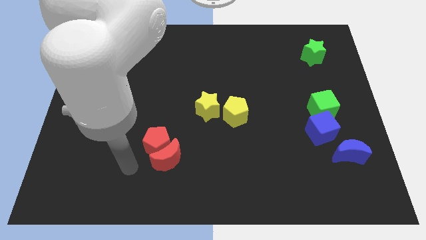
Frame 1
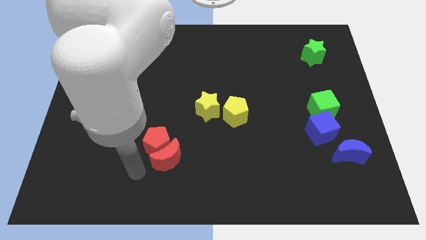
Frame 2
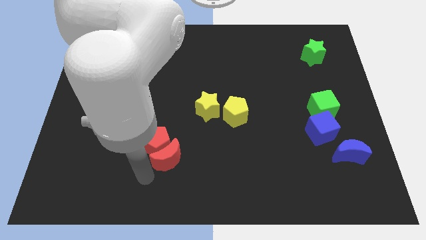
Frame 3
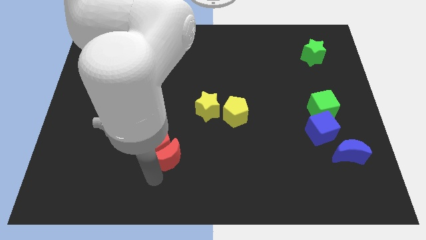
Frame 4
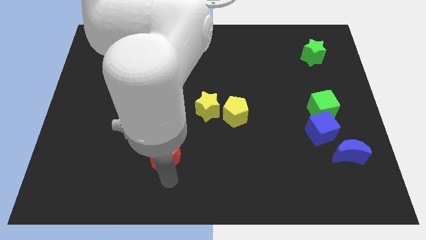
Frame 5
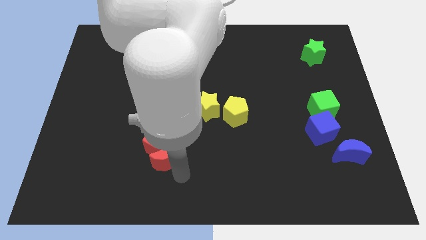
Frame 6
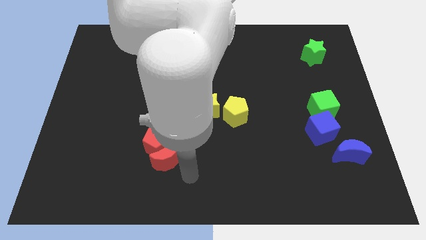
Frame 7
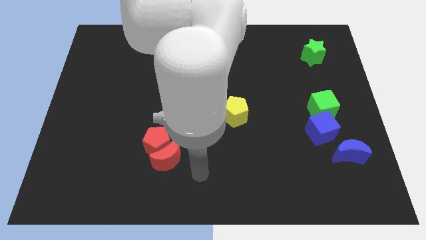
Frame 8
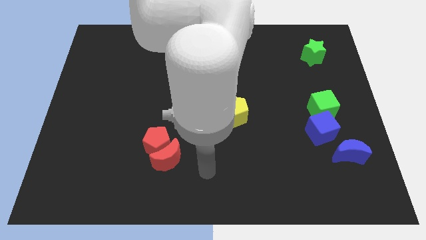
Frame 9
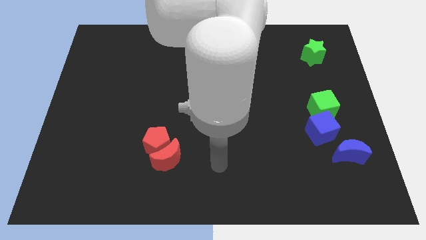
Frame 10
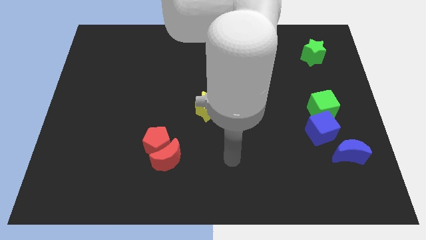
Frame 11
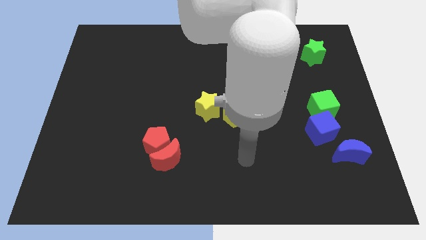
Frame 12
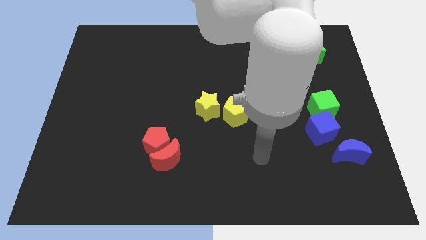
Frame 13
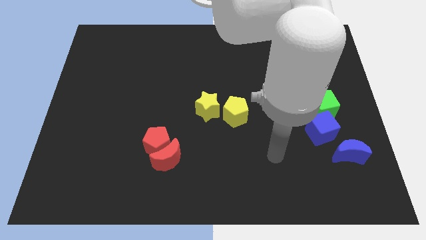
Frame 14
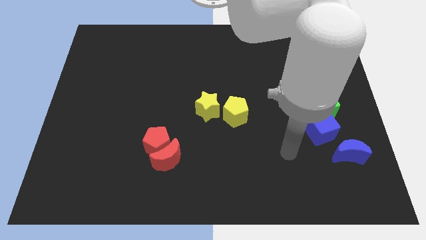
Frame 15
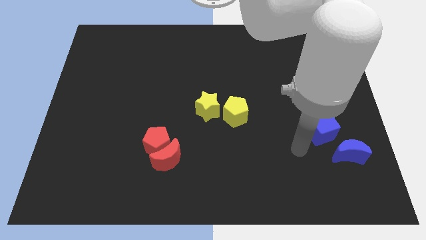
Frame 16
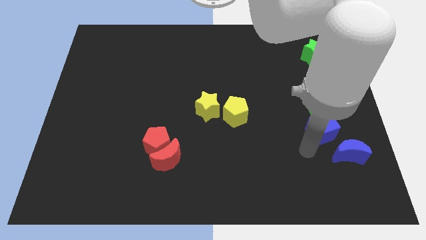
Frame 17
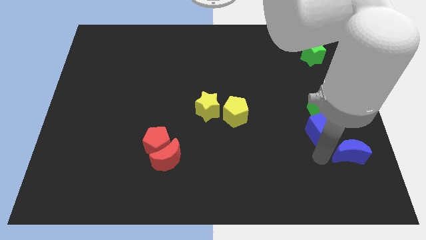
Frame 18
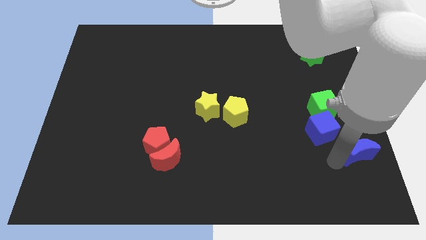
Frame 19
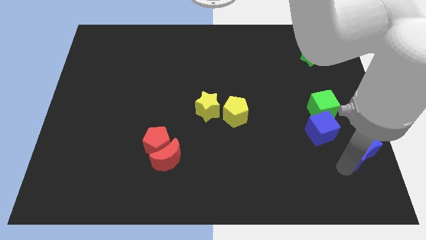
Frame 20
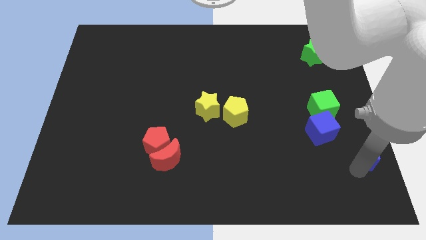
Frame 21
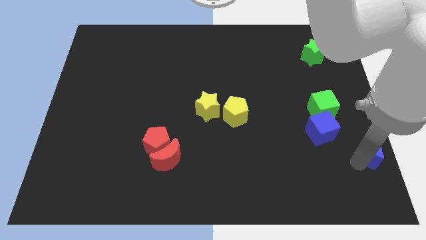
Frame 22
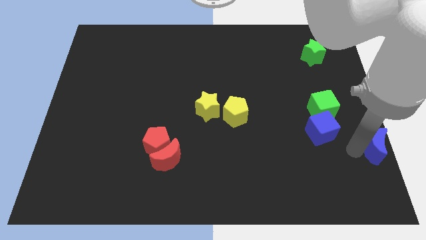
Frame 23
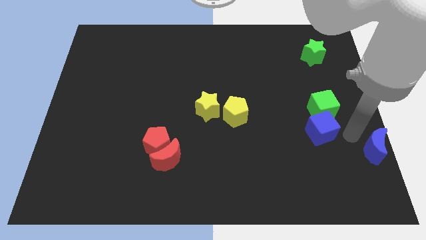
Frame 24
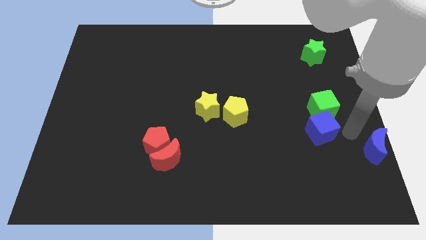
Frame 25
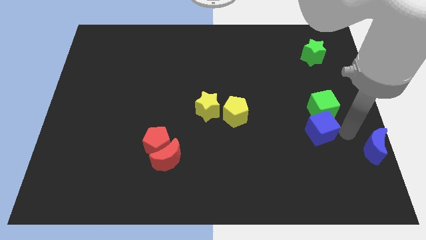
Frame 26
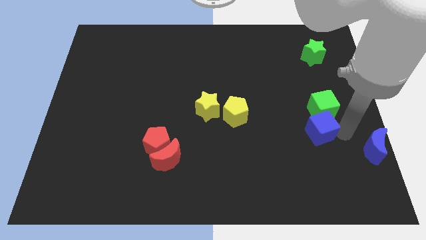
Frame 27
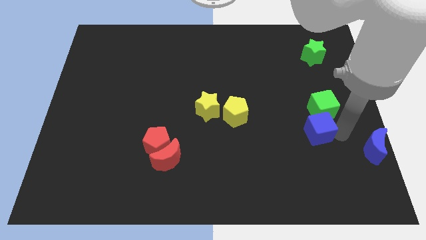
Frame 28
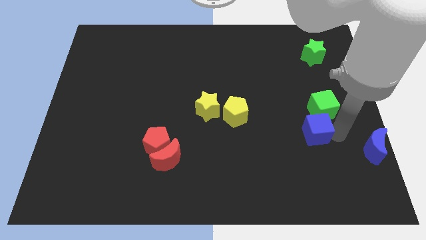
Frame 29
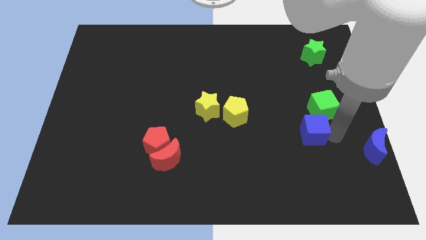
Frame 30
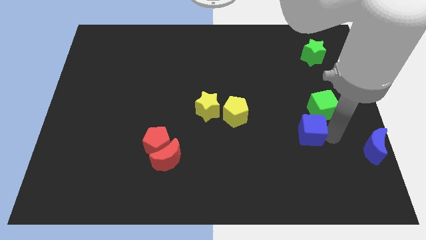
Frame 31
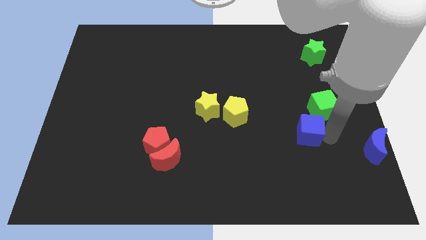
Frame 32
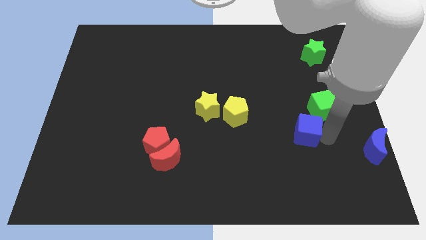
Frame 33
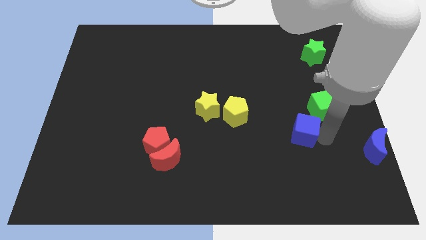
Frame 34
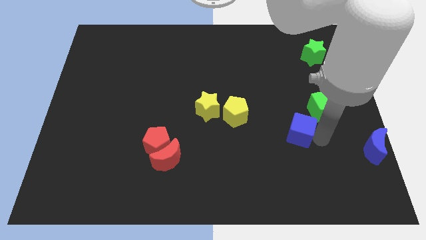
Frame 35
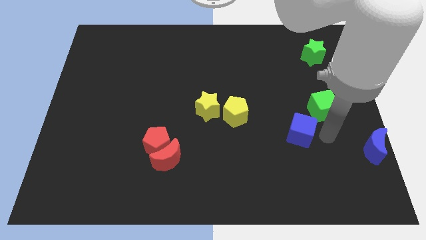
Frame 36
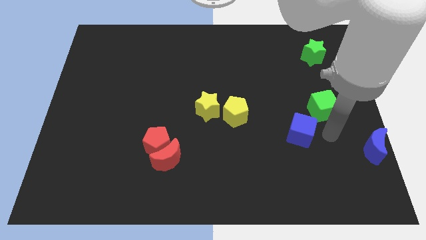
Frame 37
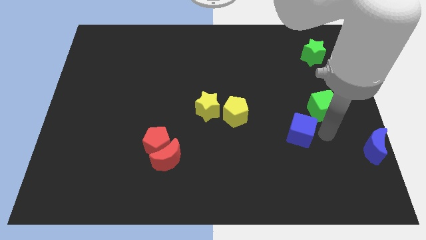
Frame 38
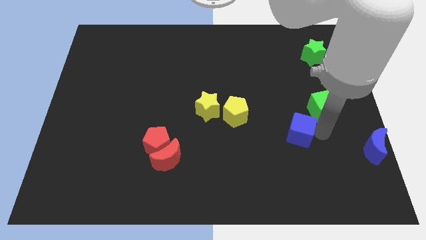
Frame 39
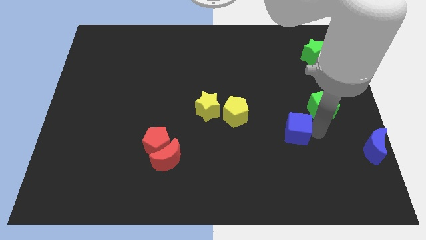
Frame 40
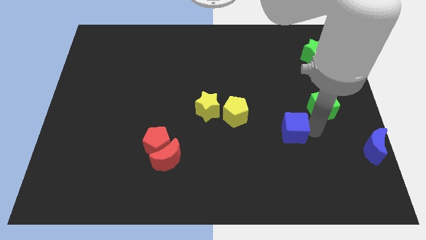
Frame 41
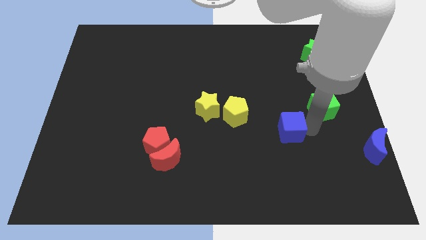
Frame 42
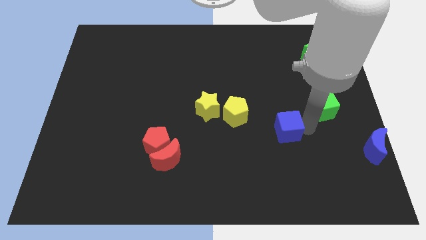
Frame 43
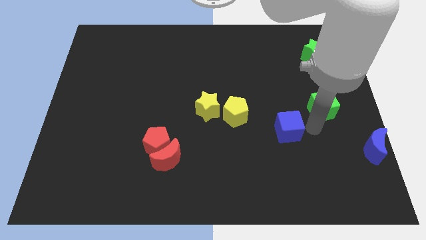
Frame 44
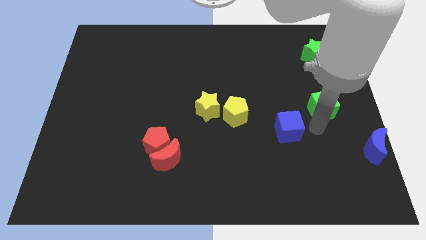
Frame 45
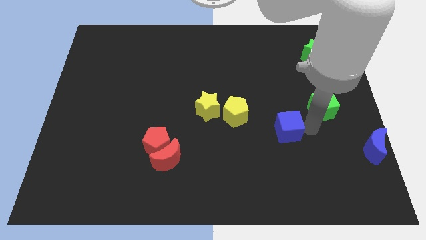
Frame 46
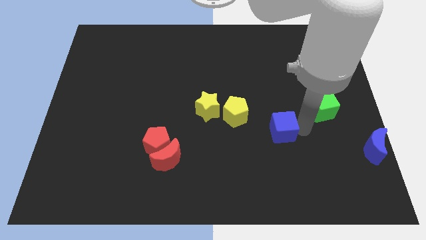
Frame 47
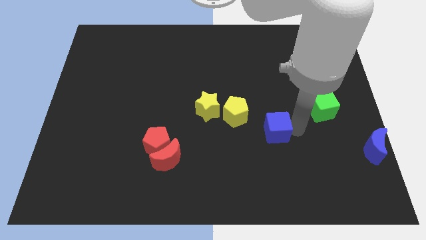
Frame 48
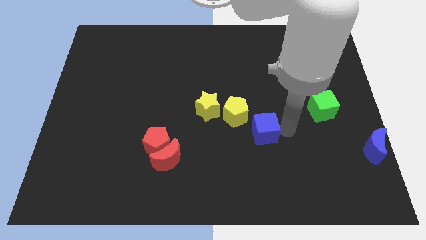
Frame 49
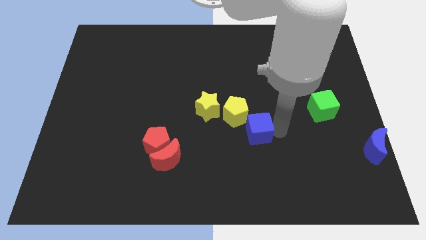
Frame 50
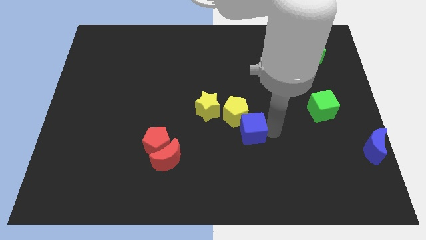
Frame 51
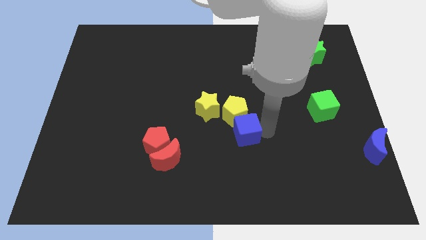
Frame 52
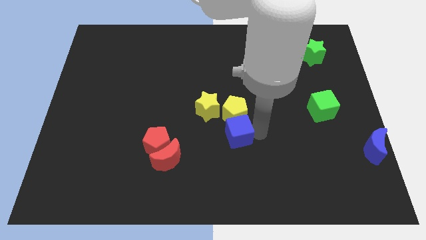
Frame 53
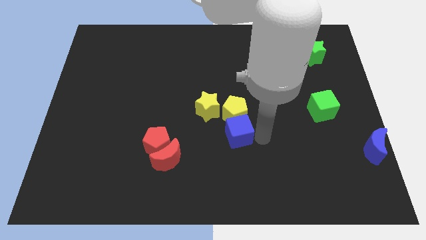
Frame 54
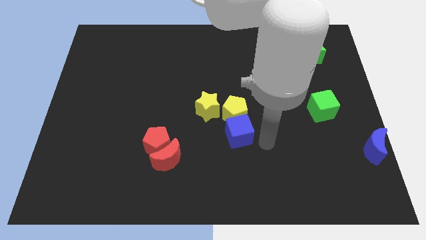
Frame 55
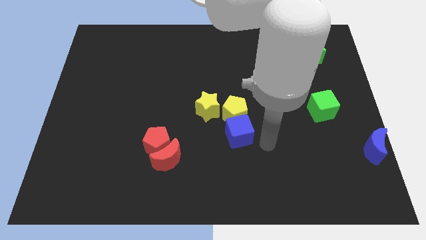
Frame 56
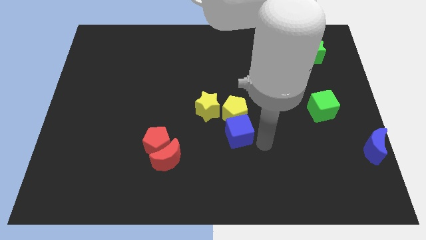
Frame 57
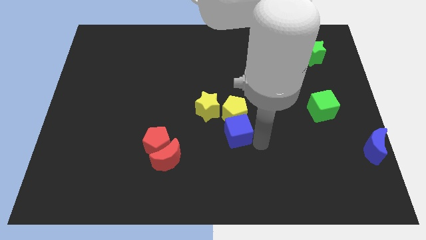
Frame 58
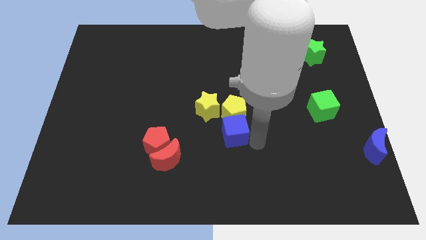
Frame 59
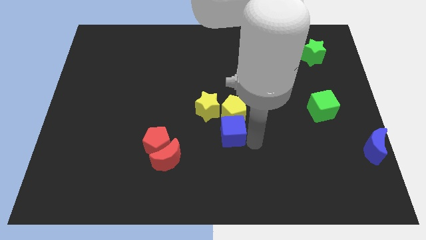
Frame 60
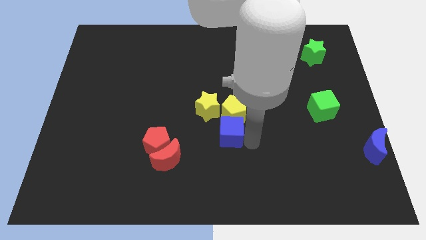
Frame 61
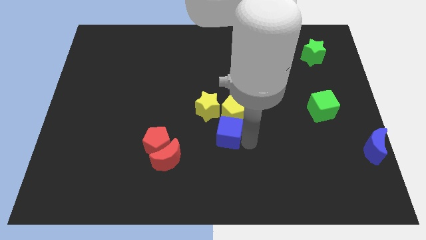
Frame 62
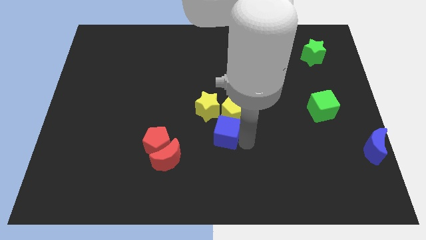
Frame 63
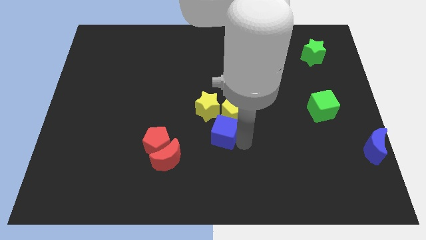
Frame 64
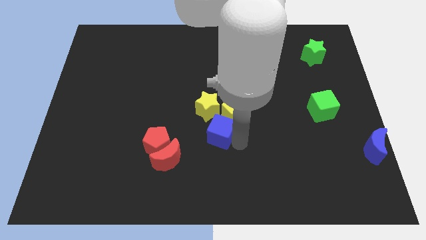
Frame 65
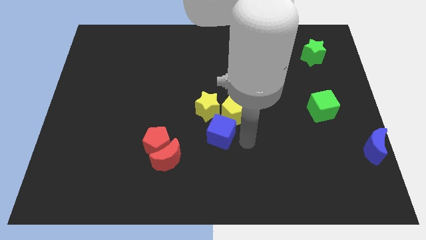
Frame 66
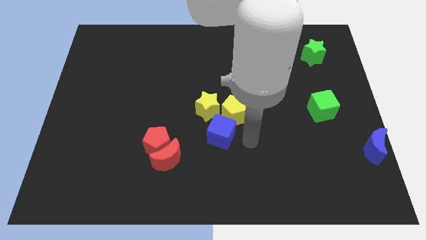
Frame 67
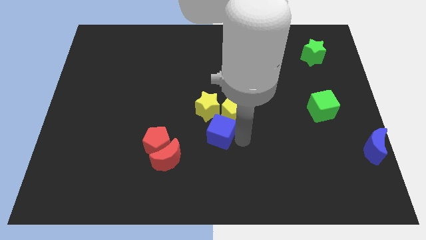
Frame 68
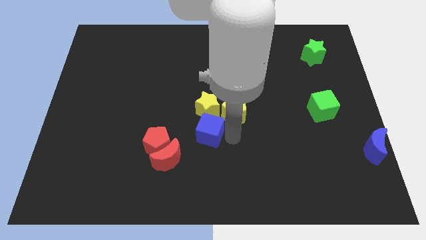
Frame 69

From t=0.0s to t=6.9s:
put the blue cube to the bottom left side of the yellow star

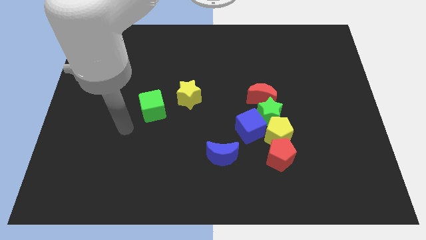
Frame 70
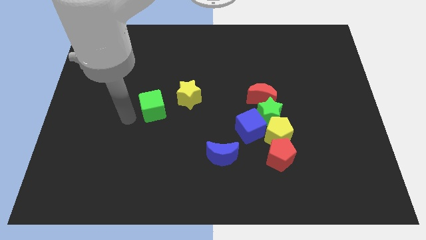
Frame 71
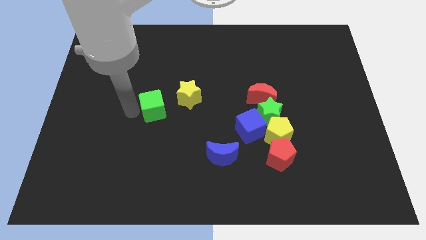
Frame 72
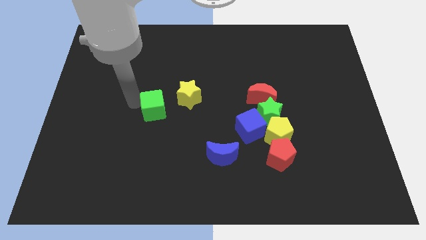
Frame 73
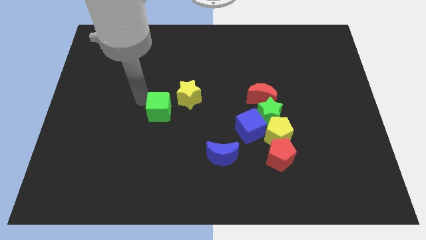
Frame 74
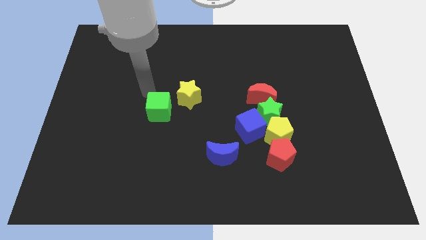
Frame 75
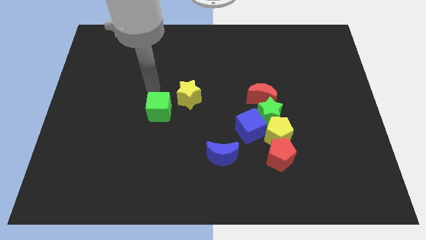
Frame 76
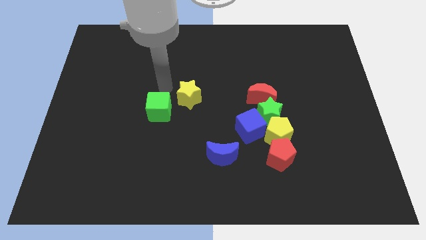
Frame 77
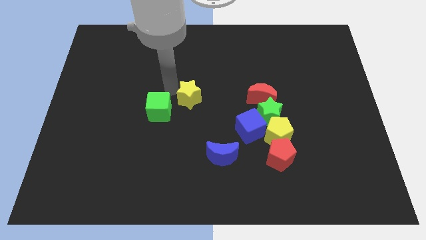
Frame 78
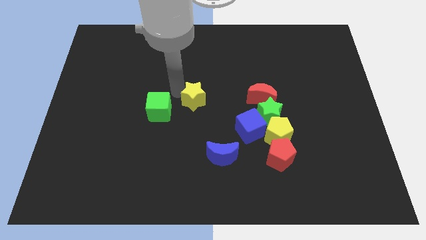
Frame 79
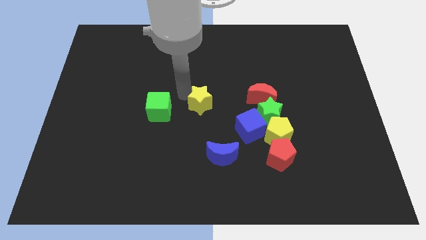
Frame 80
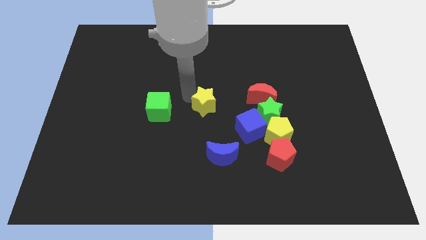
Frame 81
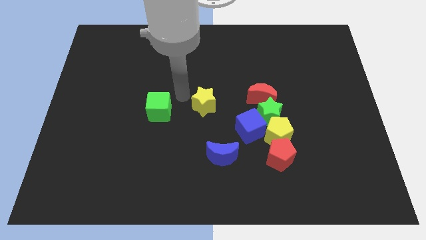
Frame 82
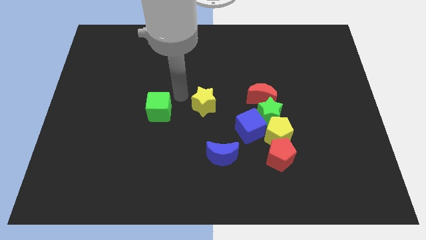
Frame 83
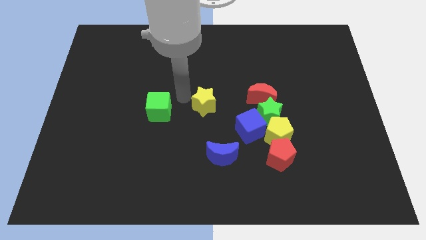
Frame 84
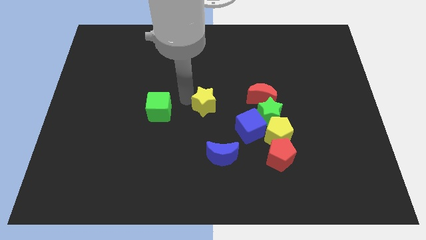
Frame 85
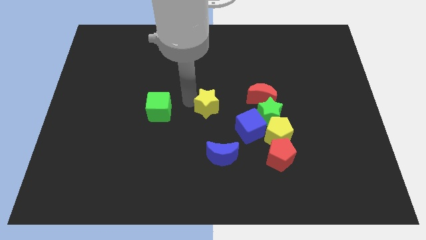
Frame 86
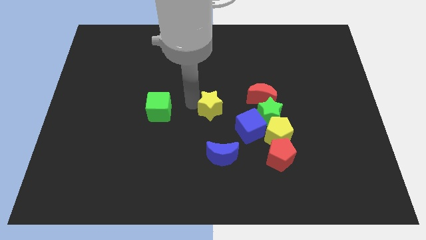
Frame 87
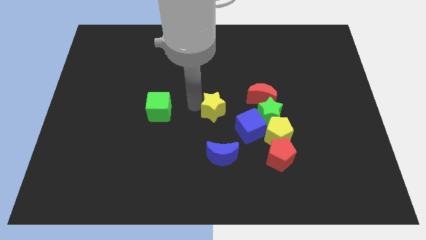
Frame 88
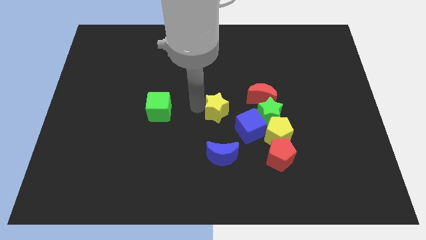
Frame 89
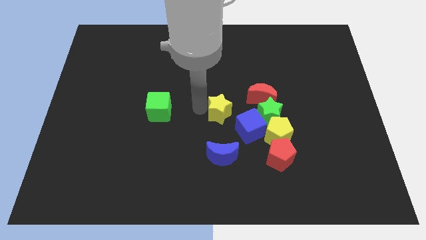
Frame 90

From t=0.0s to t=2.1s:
push the yellow star to the bottom left of the red moon
